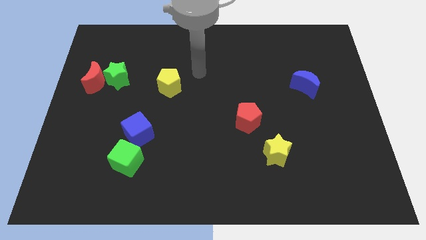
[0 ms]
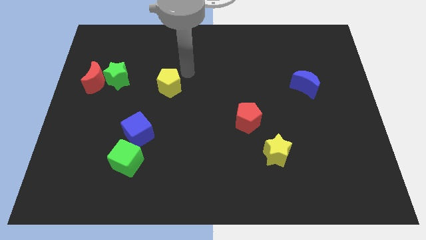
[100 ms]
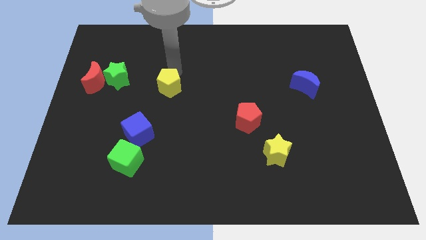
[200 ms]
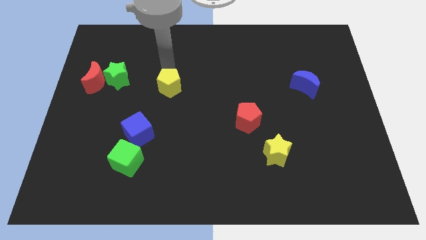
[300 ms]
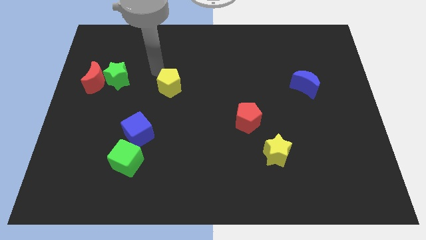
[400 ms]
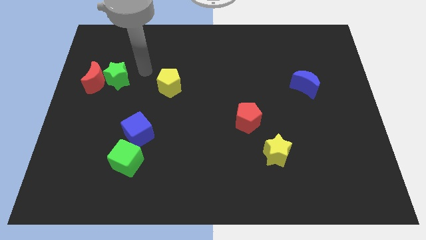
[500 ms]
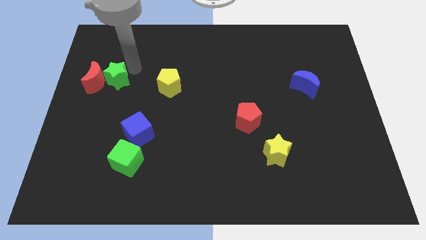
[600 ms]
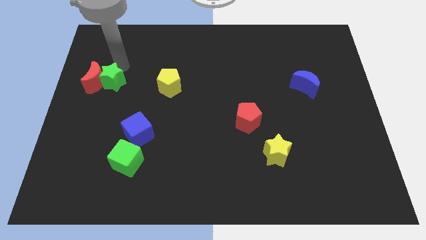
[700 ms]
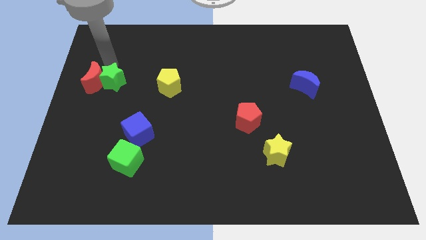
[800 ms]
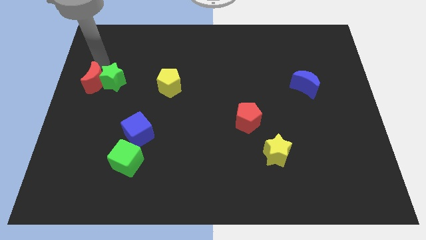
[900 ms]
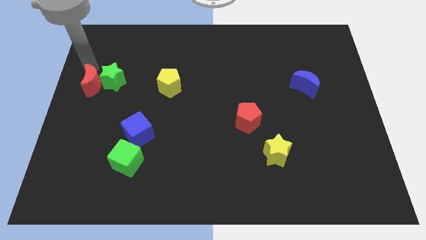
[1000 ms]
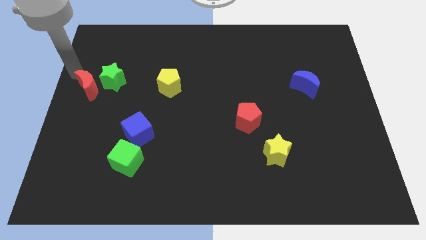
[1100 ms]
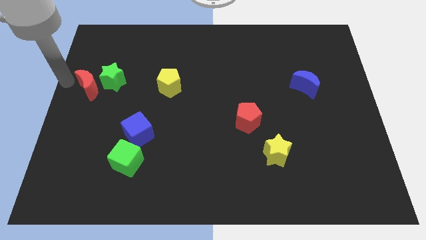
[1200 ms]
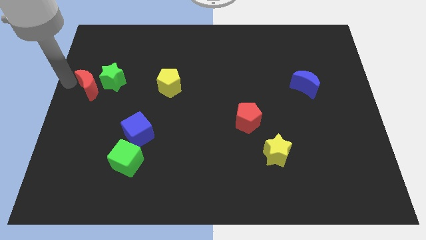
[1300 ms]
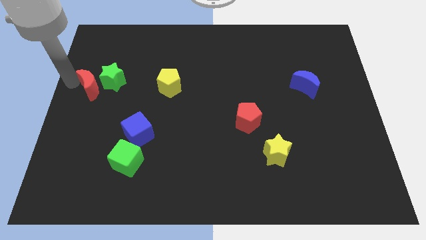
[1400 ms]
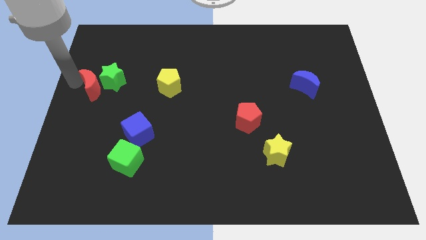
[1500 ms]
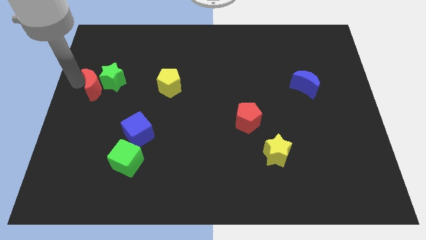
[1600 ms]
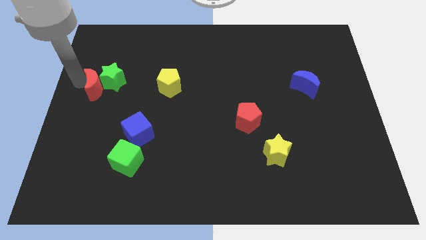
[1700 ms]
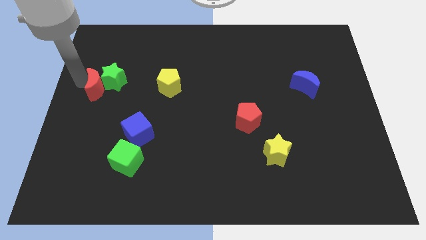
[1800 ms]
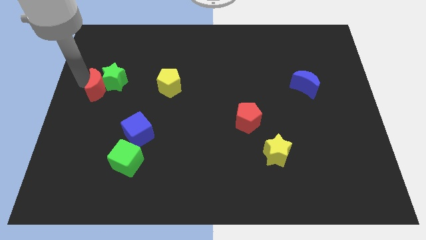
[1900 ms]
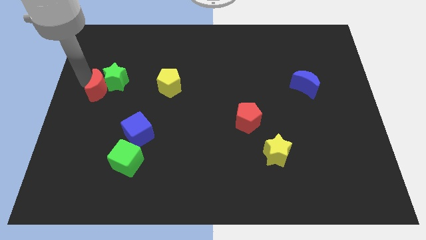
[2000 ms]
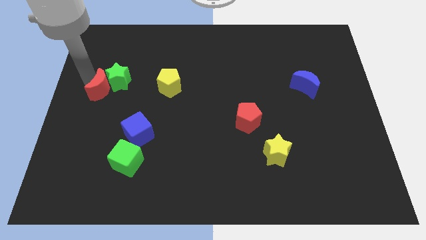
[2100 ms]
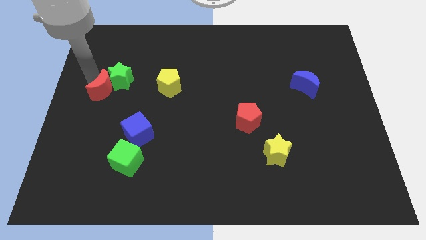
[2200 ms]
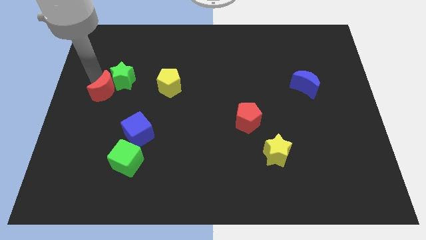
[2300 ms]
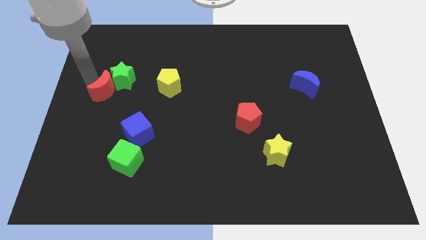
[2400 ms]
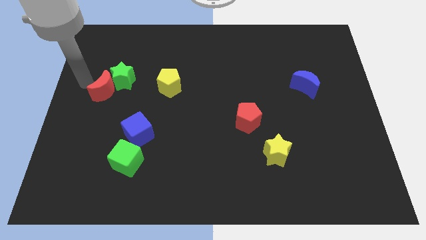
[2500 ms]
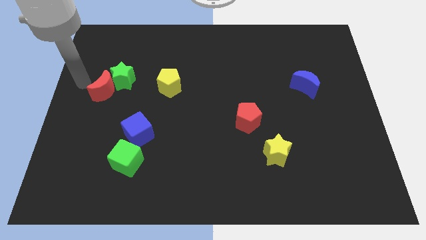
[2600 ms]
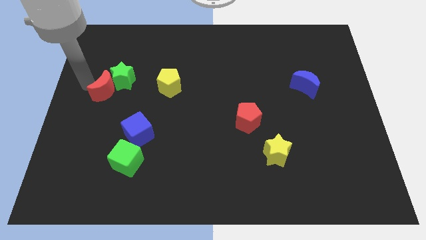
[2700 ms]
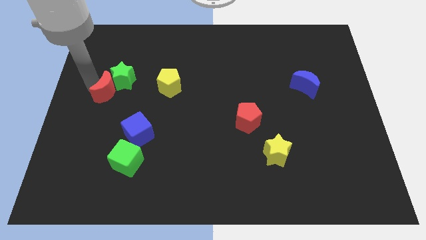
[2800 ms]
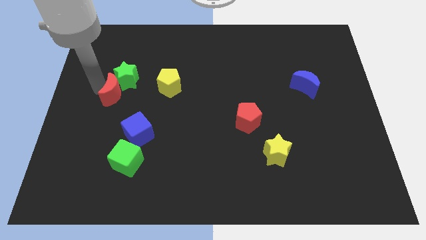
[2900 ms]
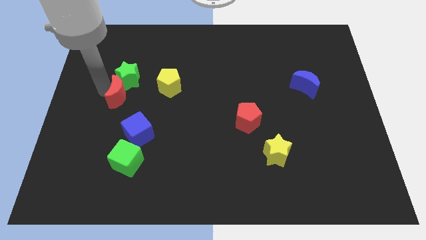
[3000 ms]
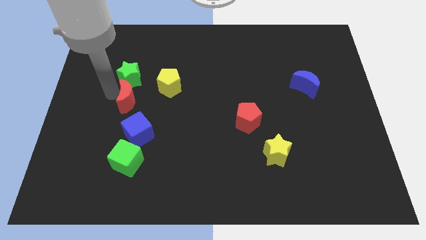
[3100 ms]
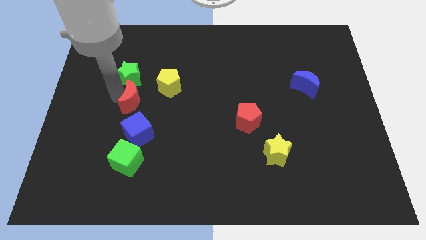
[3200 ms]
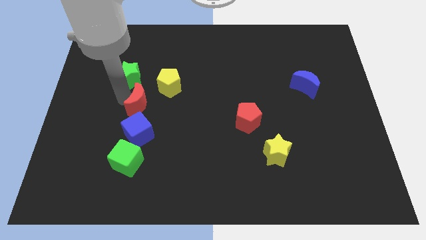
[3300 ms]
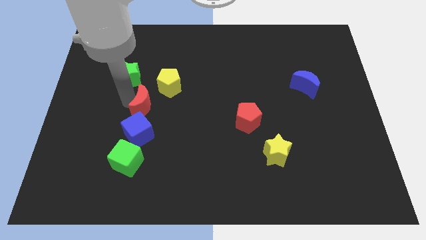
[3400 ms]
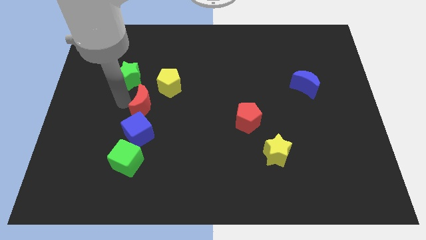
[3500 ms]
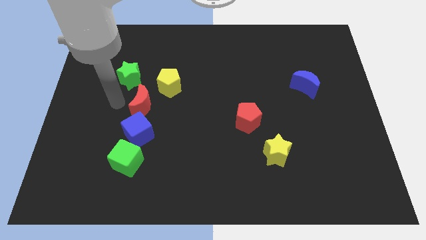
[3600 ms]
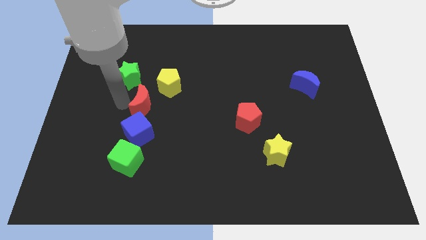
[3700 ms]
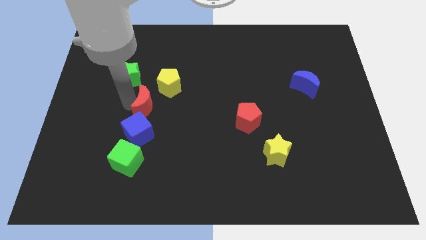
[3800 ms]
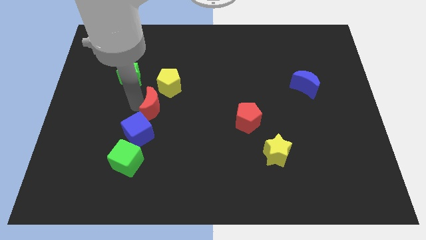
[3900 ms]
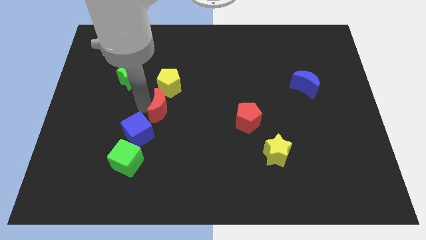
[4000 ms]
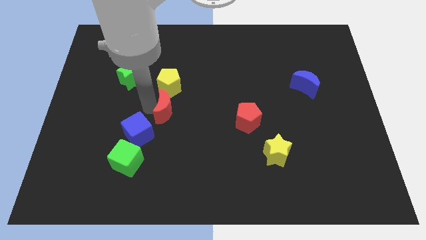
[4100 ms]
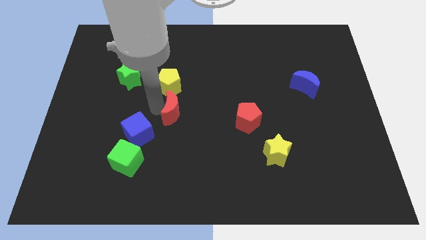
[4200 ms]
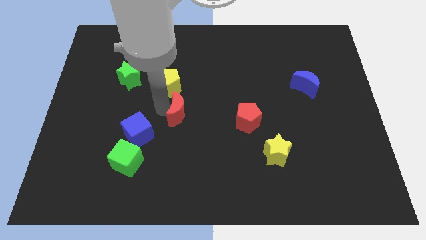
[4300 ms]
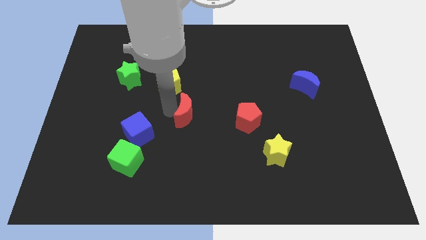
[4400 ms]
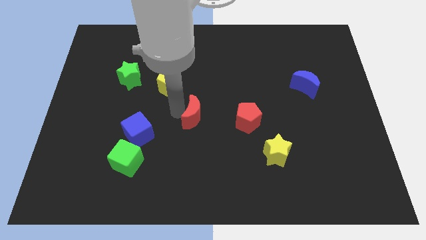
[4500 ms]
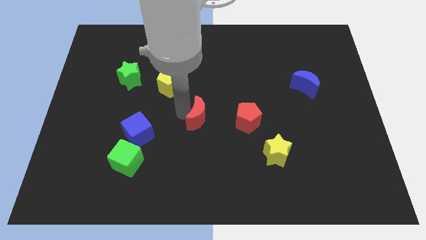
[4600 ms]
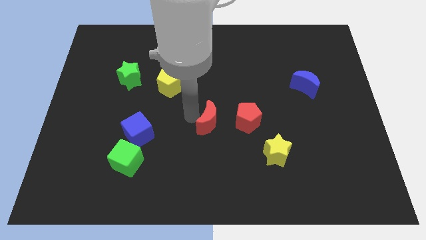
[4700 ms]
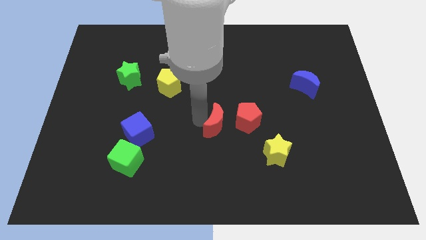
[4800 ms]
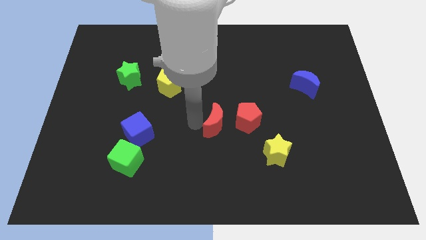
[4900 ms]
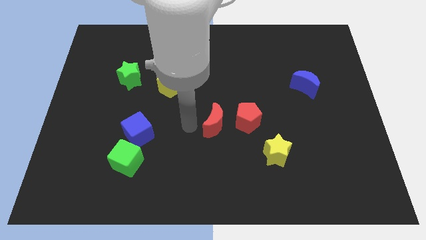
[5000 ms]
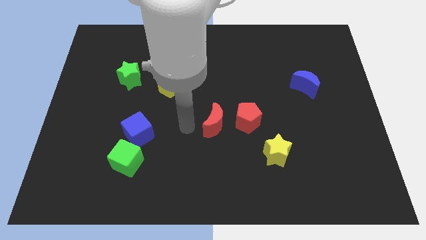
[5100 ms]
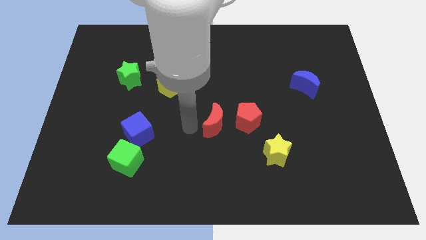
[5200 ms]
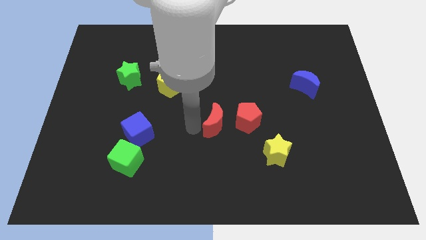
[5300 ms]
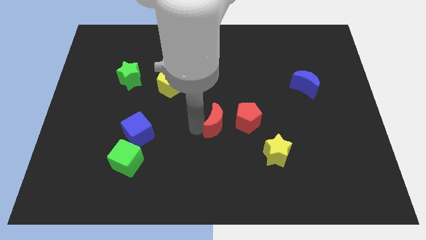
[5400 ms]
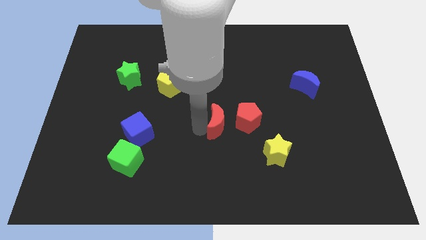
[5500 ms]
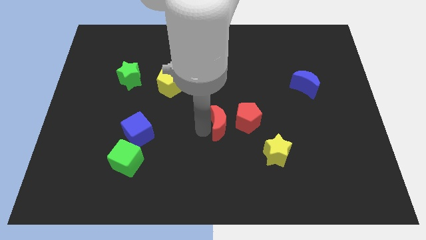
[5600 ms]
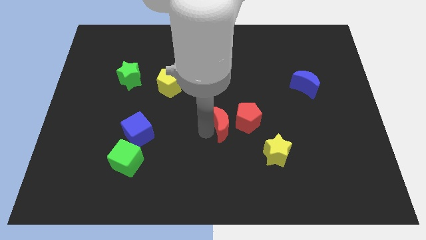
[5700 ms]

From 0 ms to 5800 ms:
move the red moon next to the red pentagon

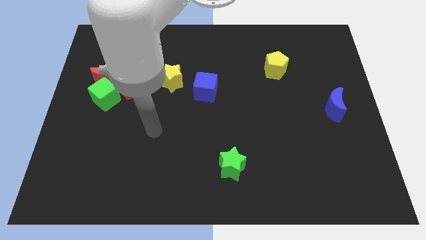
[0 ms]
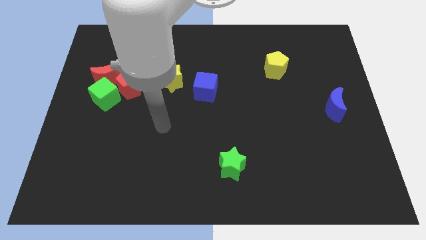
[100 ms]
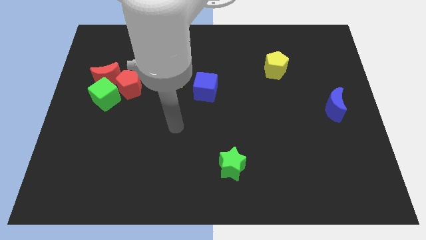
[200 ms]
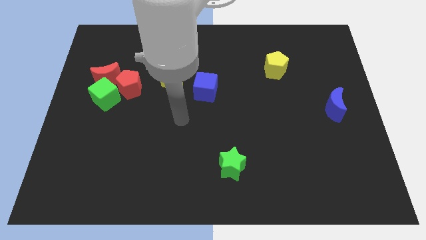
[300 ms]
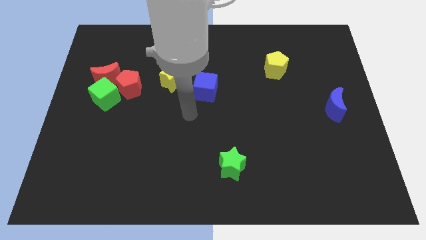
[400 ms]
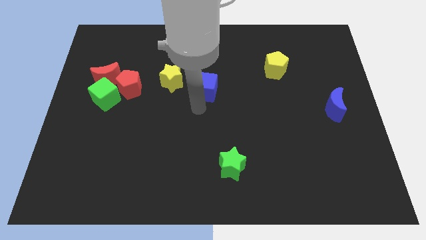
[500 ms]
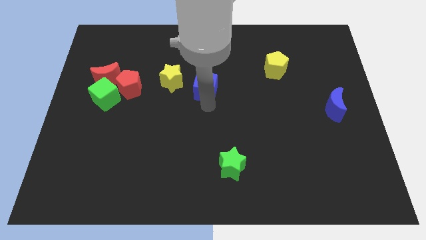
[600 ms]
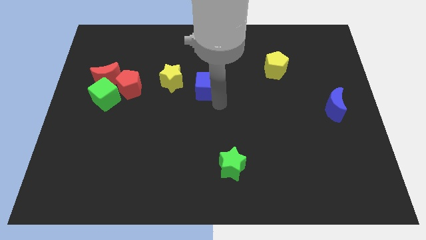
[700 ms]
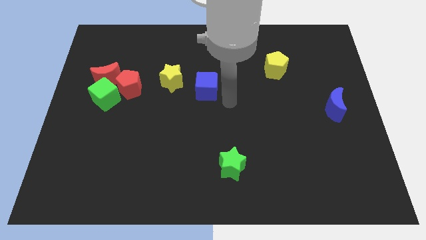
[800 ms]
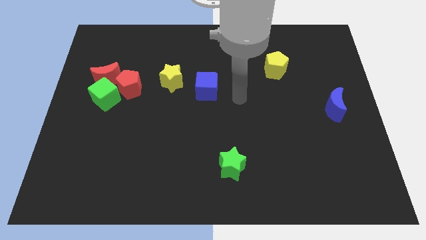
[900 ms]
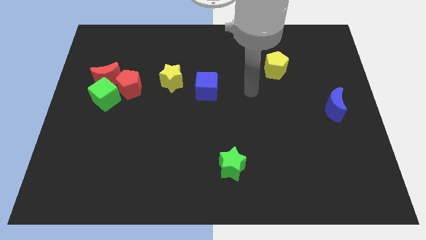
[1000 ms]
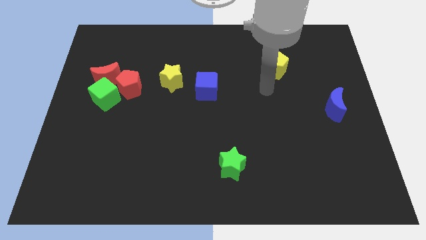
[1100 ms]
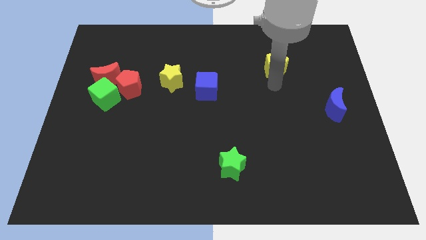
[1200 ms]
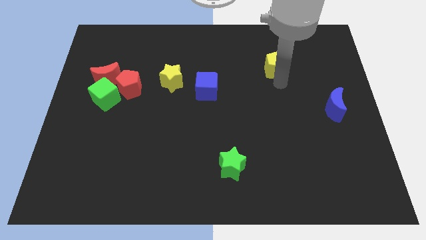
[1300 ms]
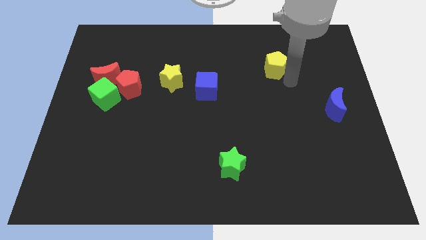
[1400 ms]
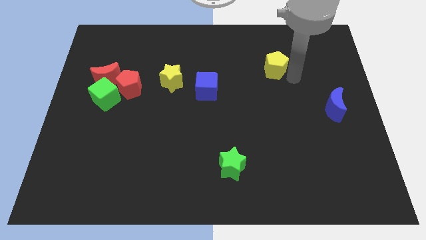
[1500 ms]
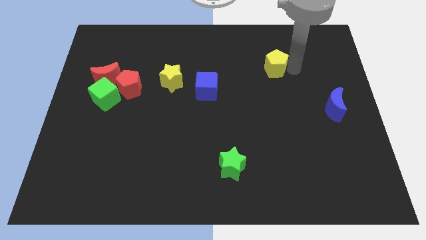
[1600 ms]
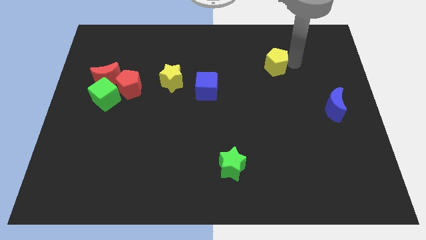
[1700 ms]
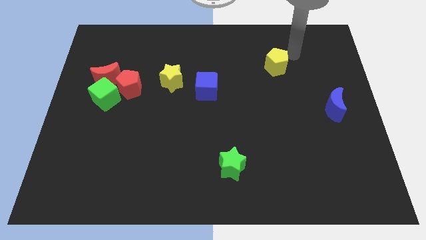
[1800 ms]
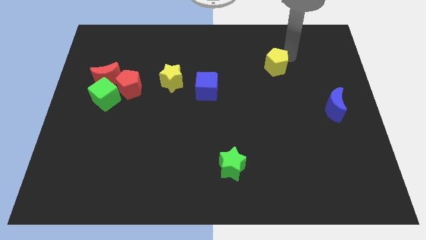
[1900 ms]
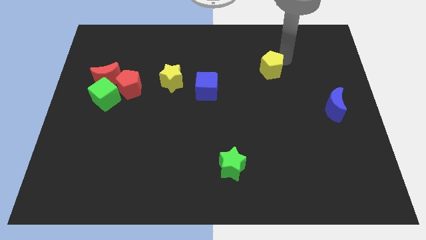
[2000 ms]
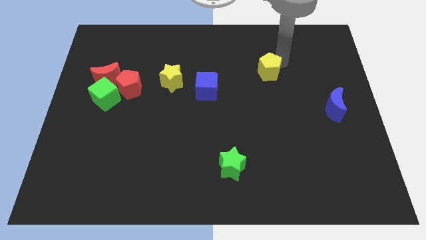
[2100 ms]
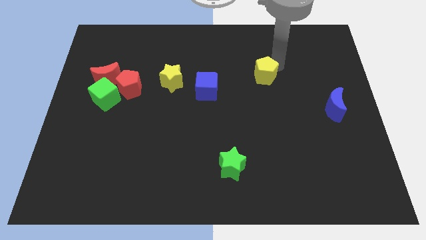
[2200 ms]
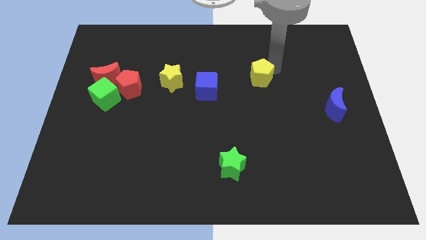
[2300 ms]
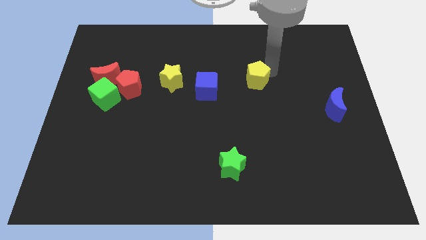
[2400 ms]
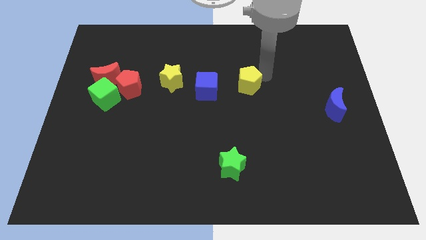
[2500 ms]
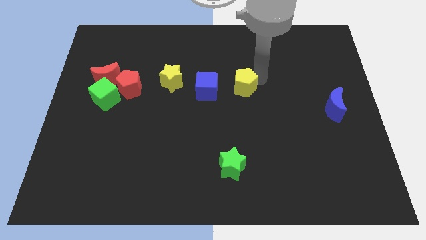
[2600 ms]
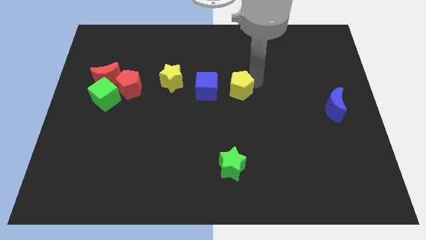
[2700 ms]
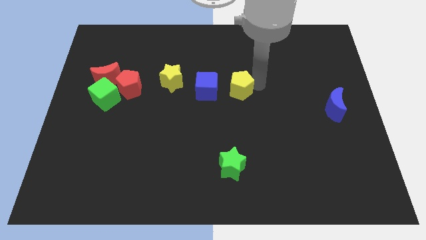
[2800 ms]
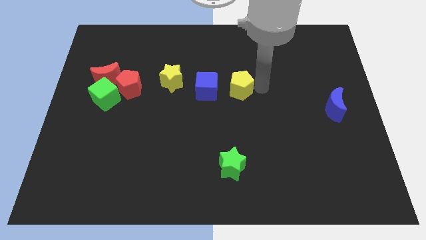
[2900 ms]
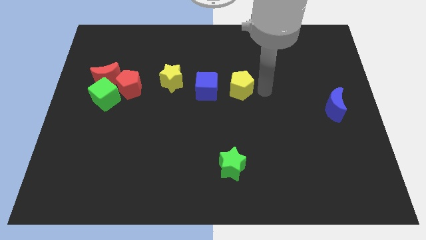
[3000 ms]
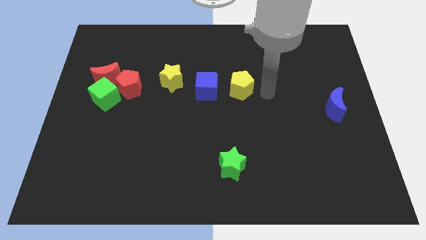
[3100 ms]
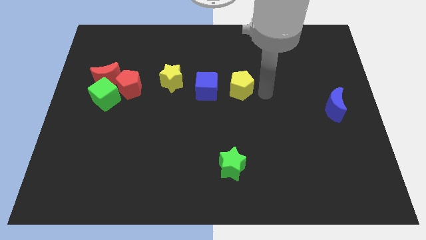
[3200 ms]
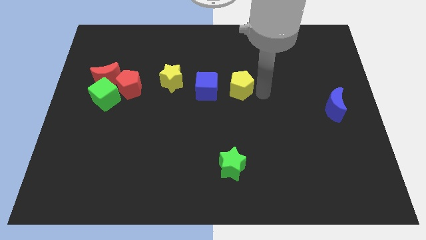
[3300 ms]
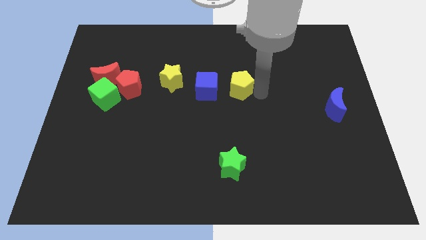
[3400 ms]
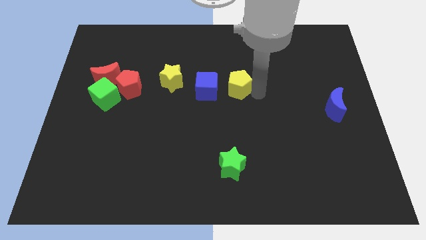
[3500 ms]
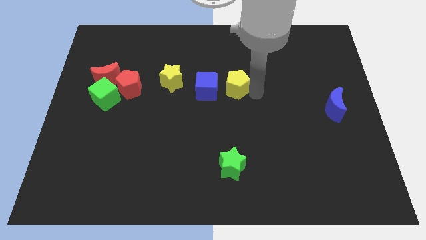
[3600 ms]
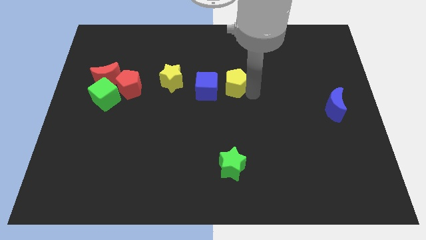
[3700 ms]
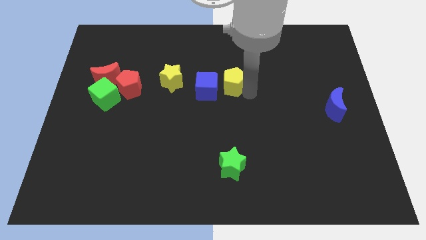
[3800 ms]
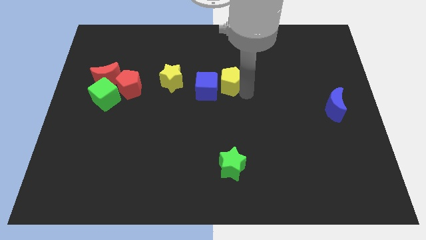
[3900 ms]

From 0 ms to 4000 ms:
put the yellow pentagon towards the blue cube
